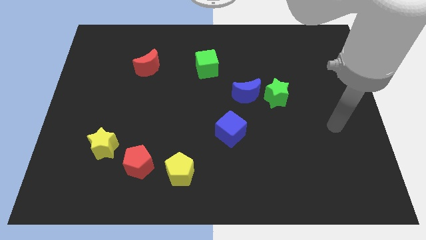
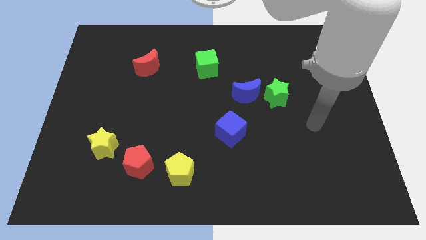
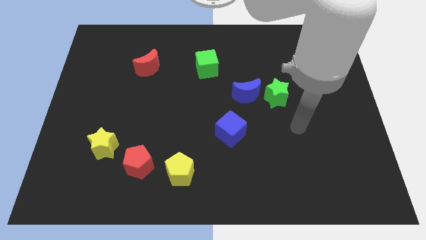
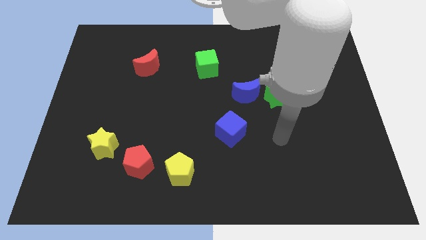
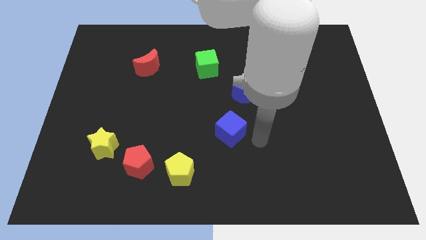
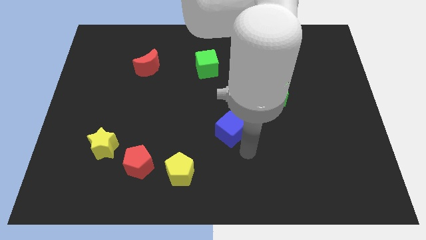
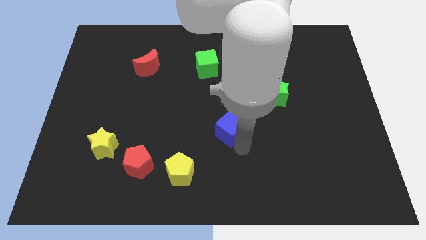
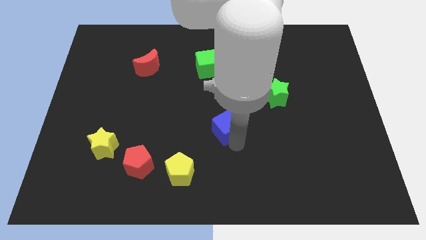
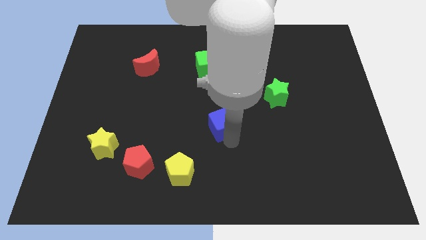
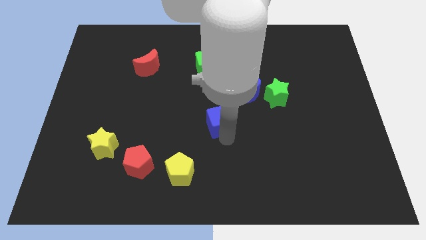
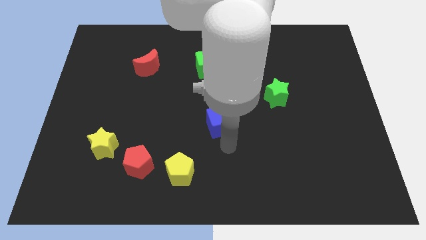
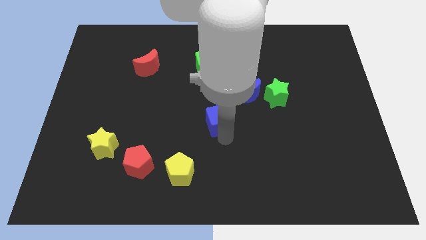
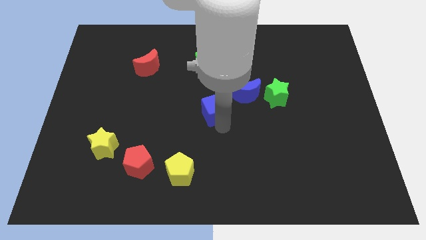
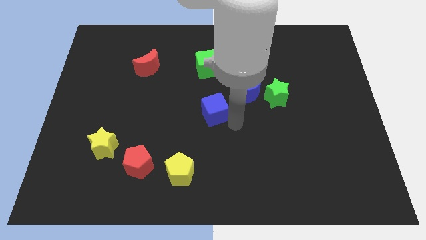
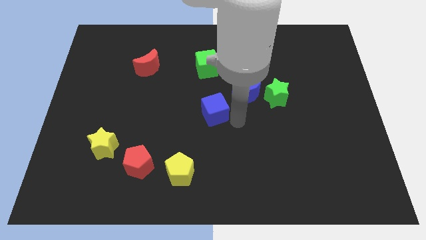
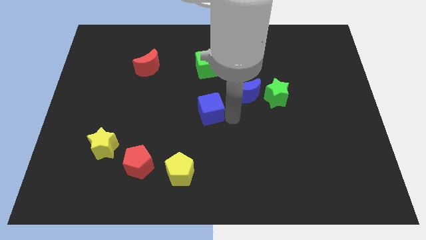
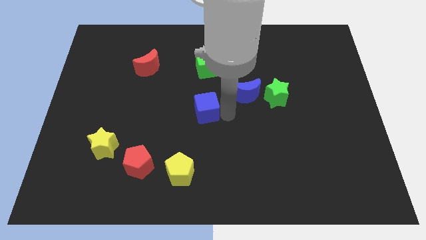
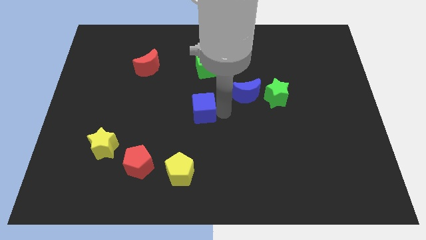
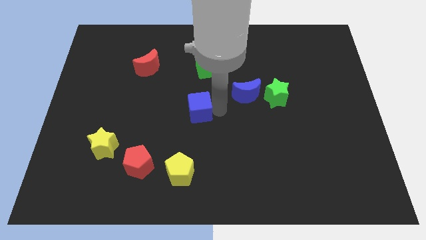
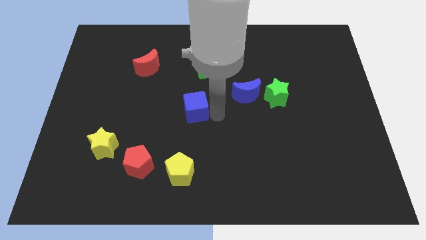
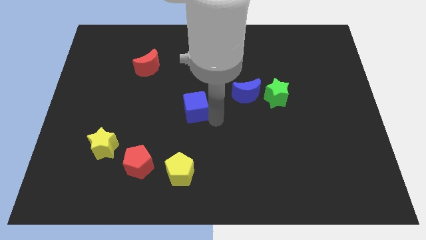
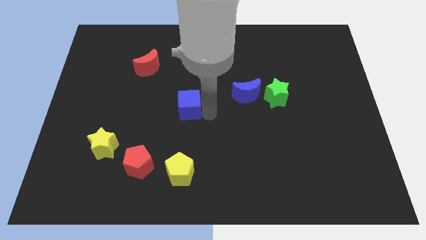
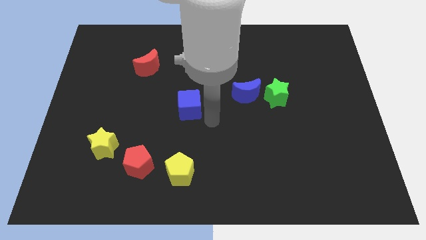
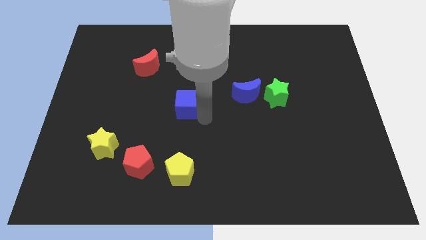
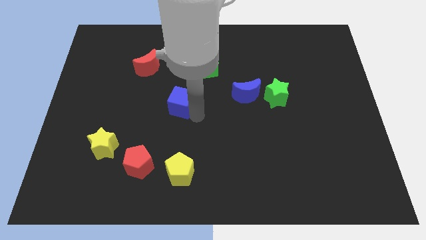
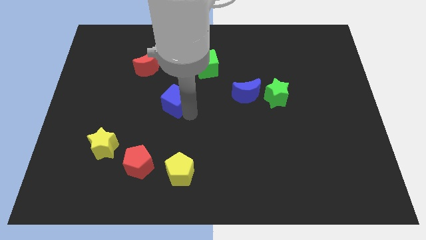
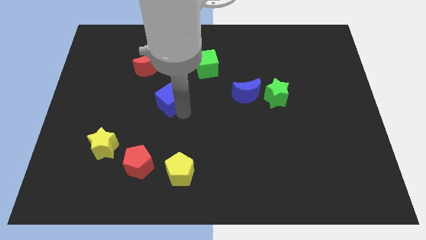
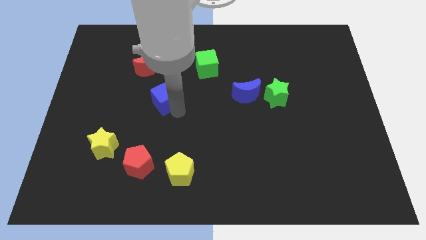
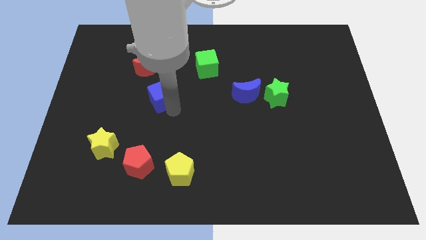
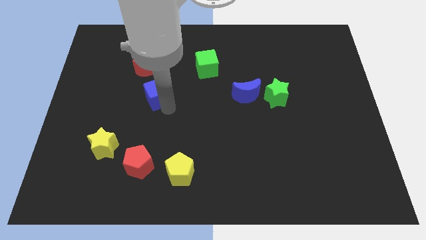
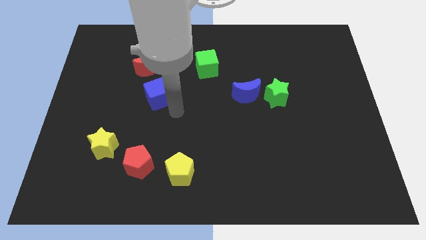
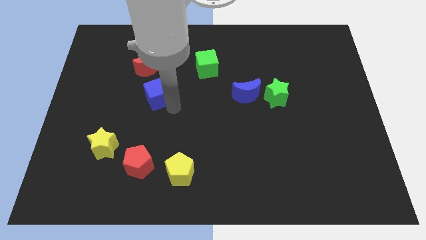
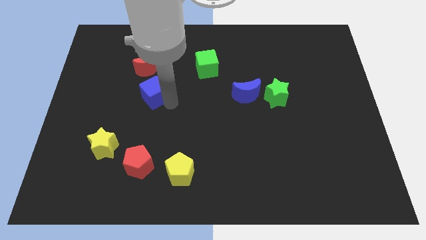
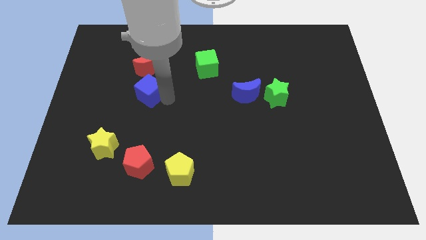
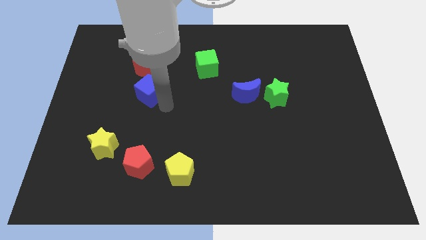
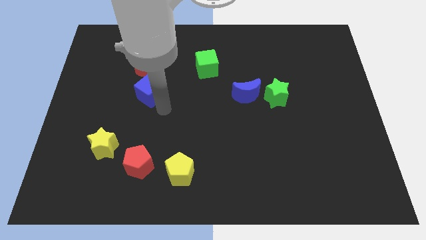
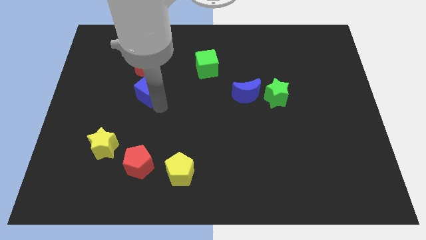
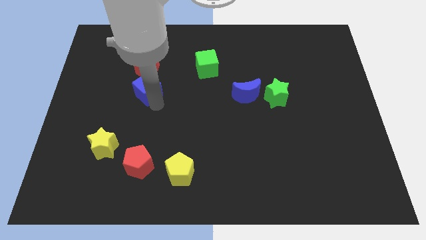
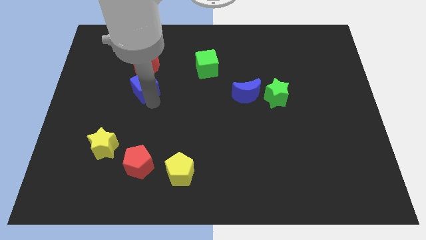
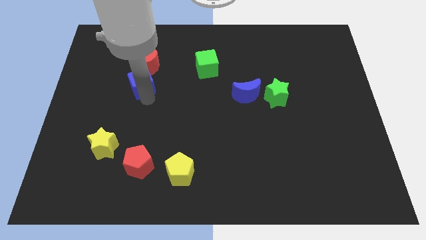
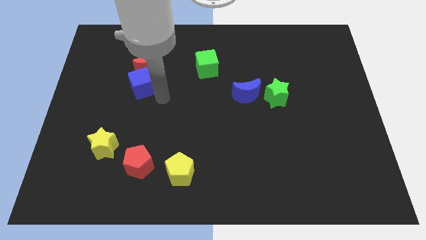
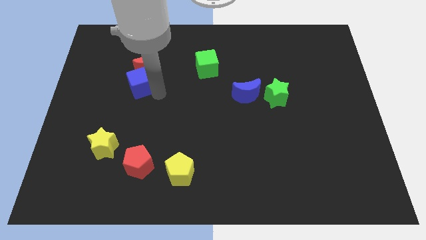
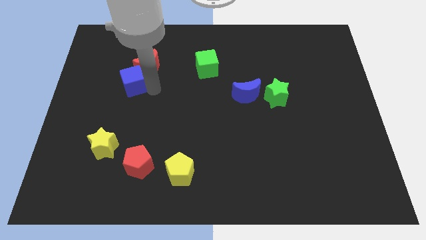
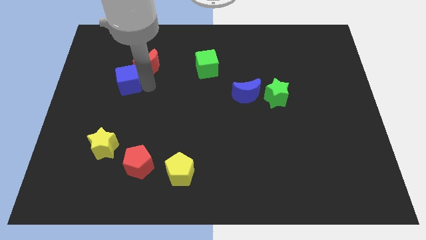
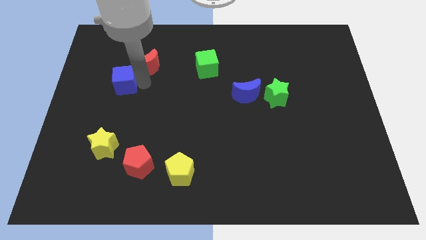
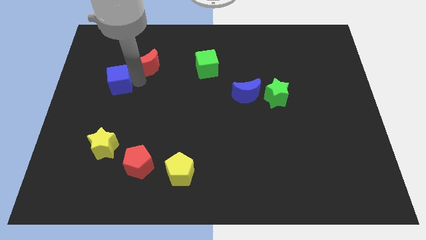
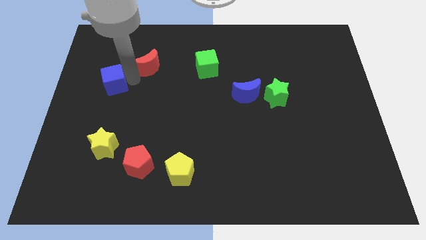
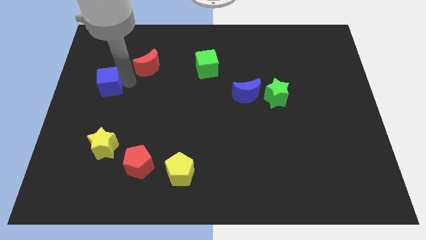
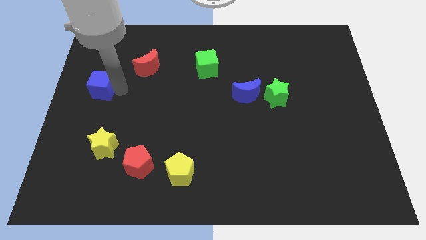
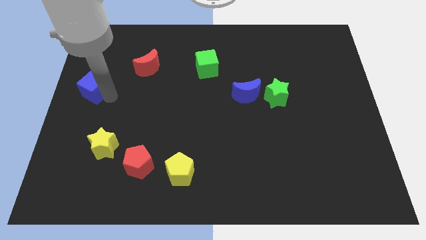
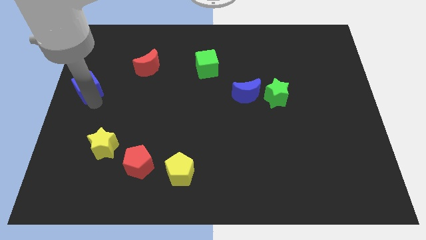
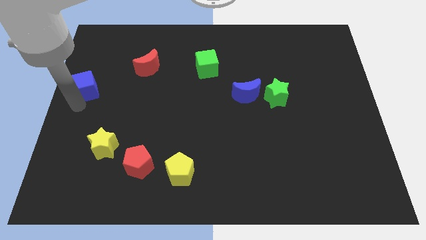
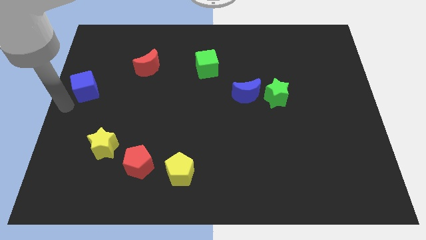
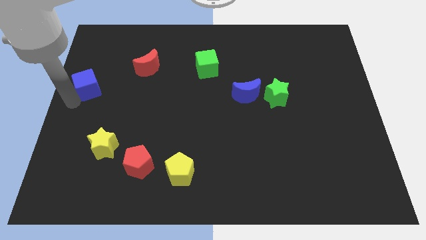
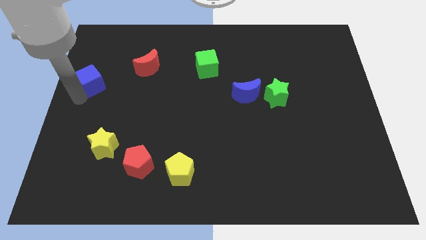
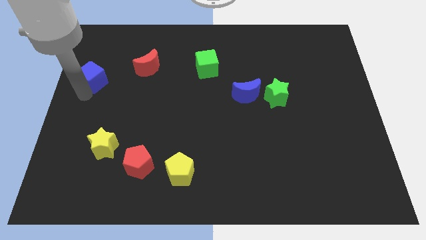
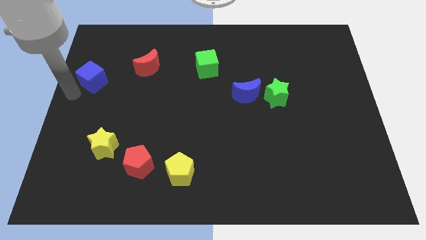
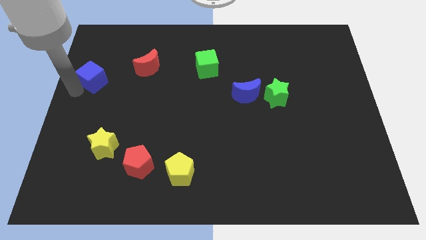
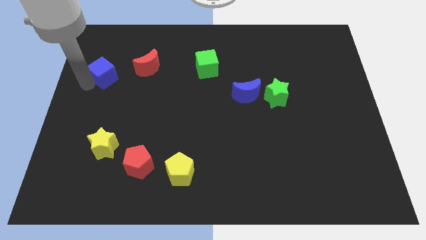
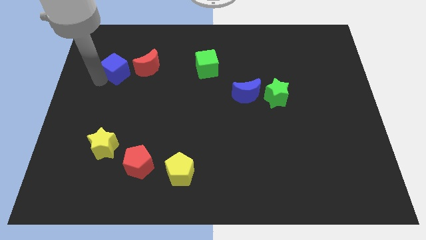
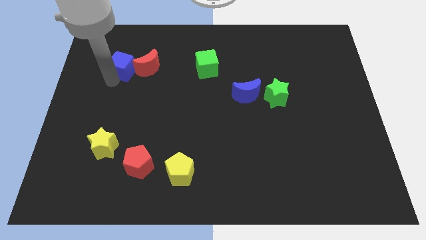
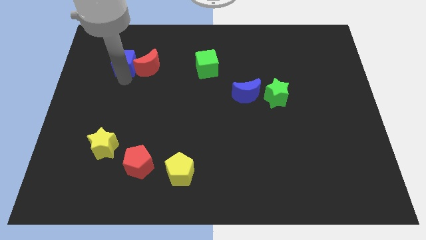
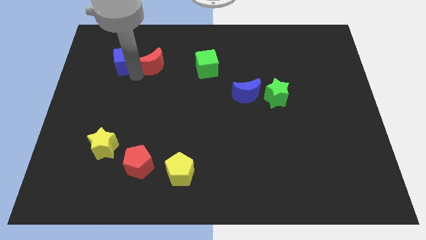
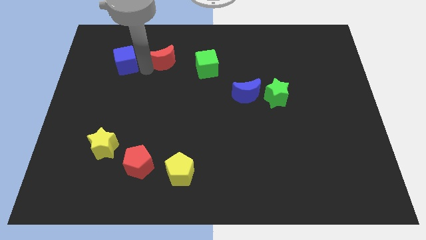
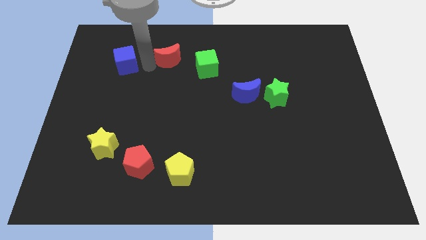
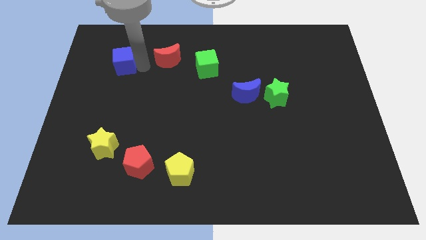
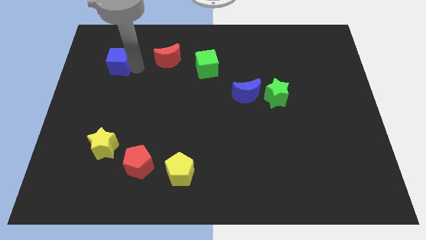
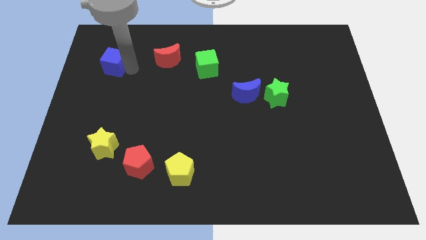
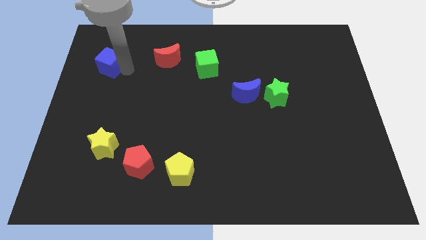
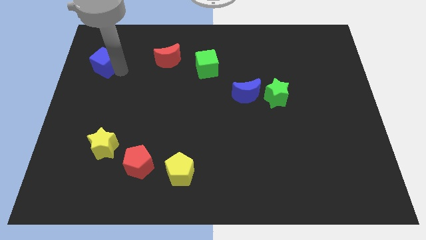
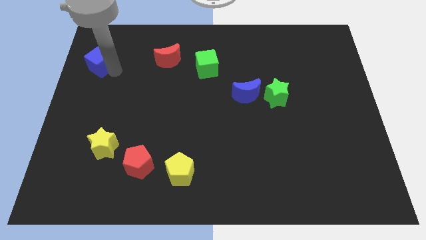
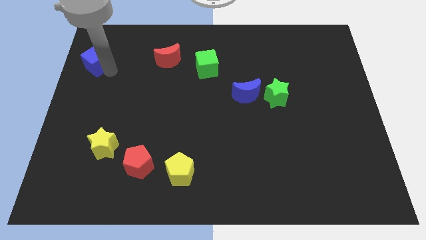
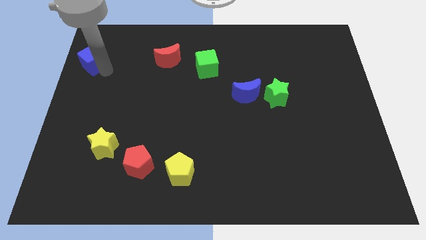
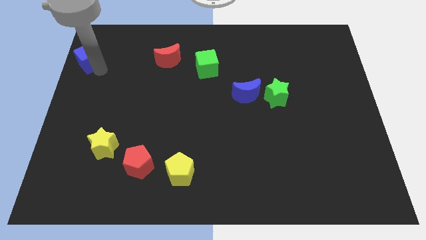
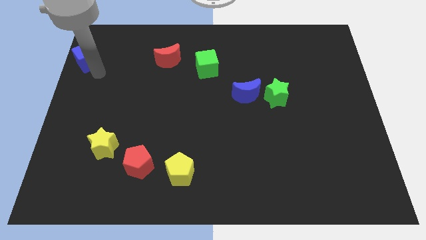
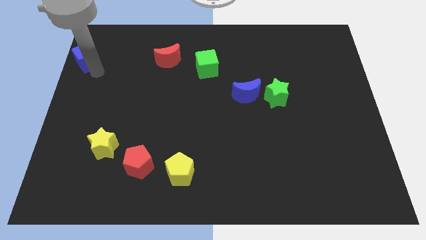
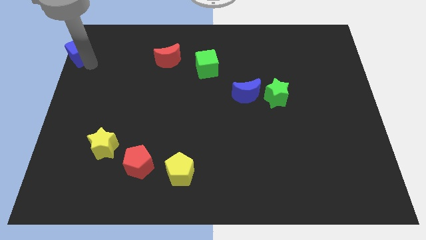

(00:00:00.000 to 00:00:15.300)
move the blue cube to the top left corner
